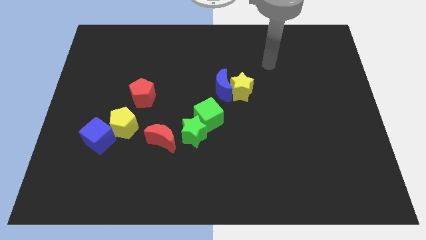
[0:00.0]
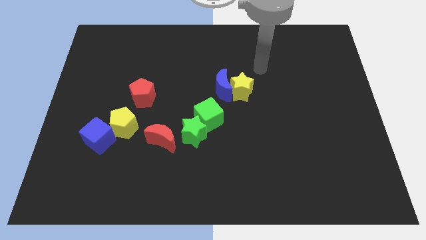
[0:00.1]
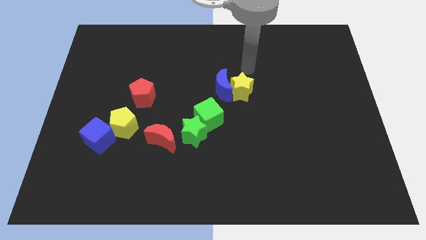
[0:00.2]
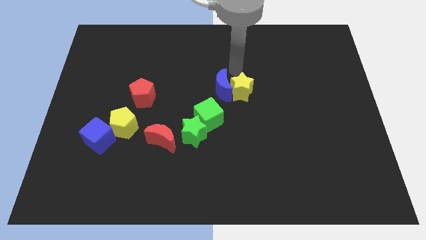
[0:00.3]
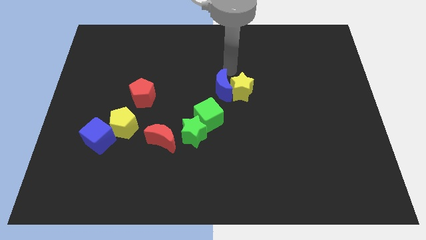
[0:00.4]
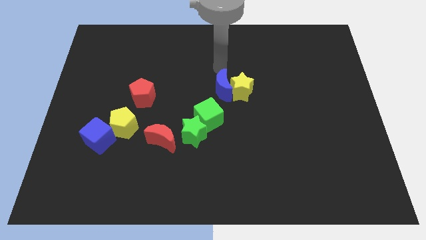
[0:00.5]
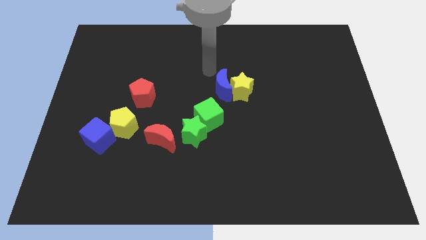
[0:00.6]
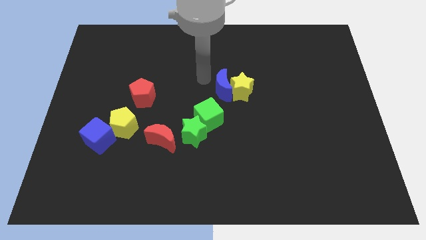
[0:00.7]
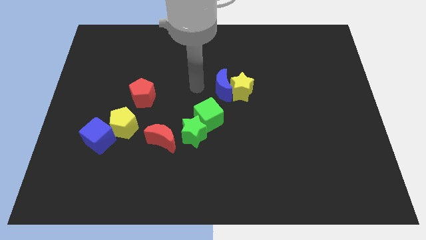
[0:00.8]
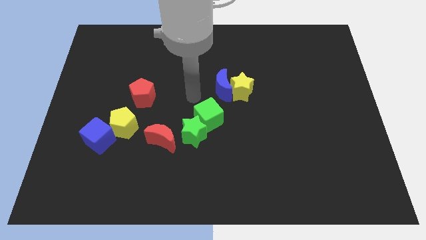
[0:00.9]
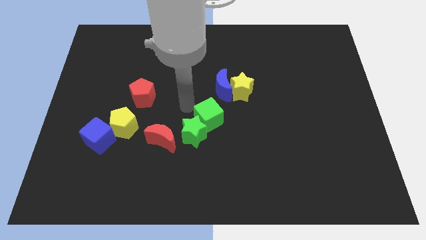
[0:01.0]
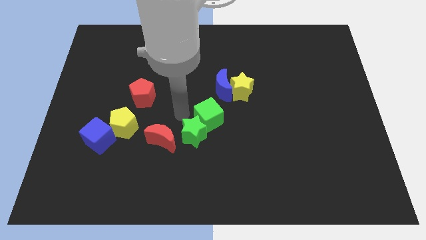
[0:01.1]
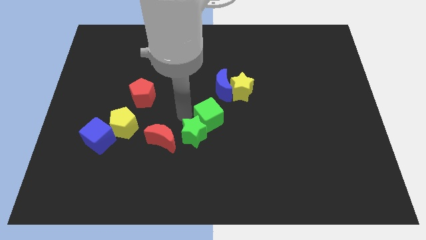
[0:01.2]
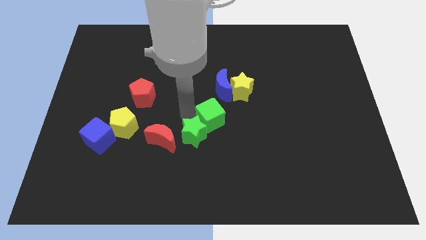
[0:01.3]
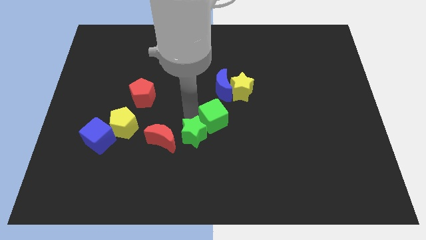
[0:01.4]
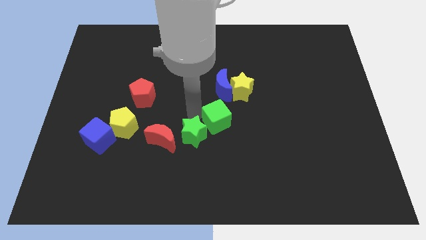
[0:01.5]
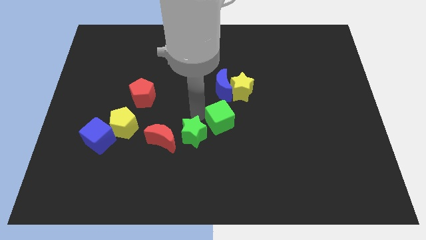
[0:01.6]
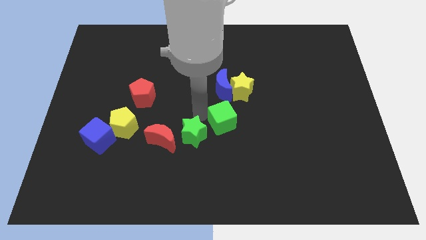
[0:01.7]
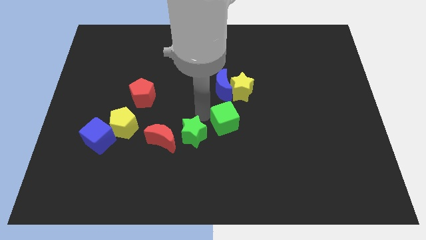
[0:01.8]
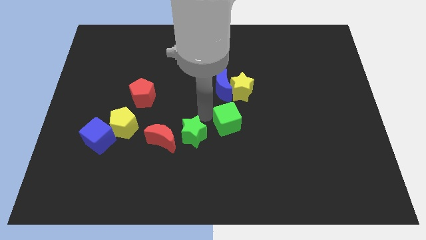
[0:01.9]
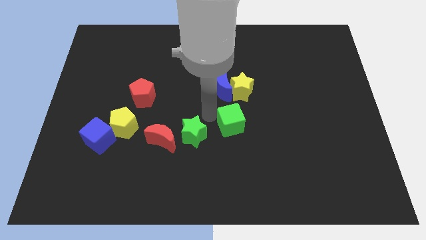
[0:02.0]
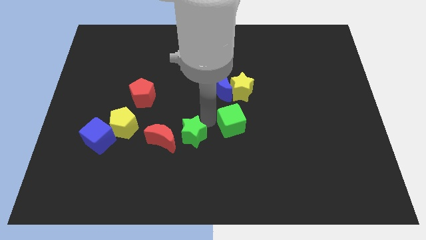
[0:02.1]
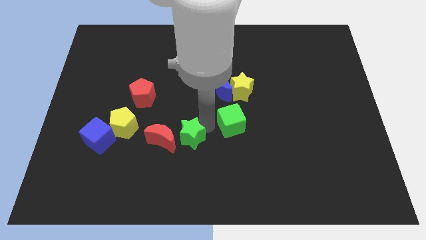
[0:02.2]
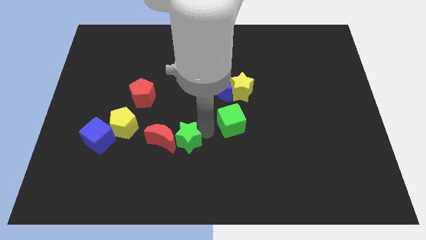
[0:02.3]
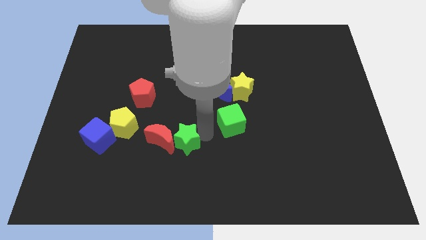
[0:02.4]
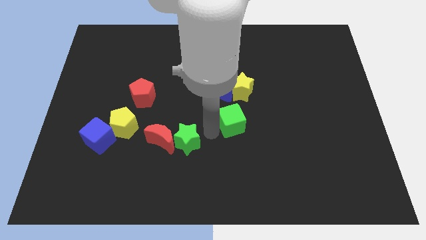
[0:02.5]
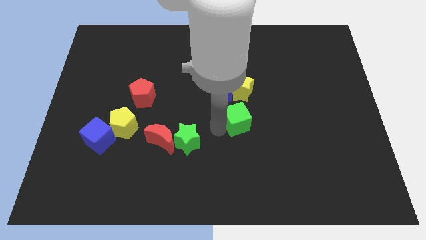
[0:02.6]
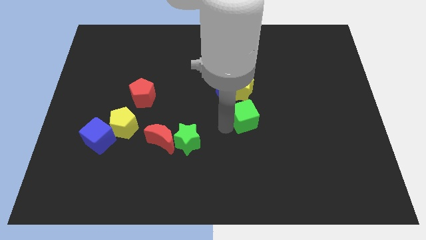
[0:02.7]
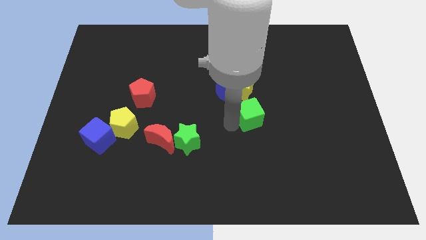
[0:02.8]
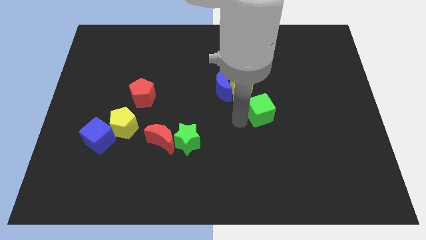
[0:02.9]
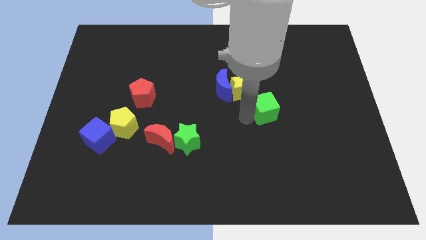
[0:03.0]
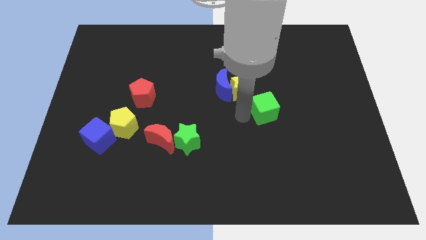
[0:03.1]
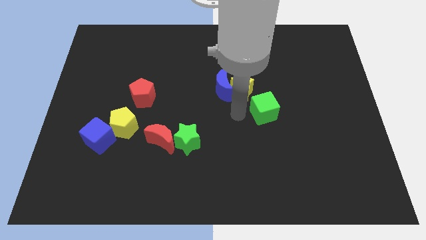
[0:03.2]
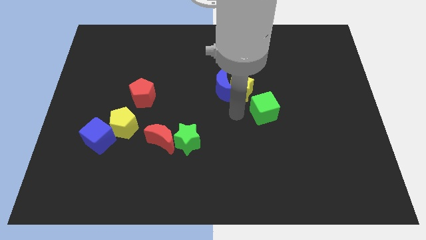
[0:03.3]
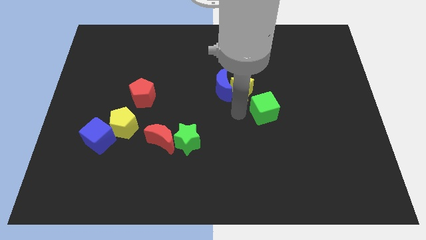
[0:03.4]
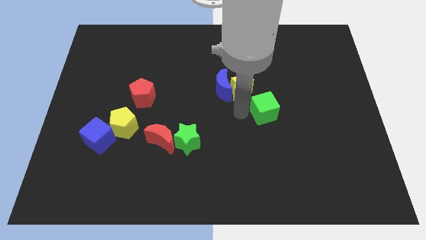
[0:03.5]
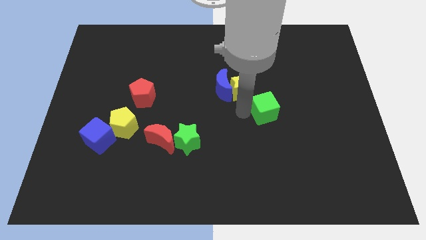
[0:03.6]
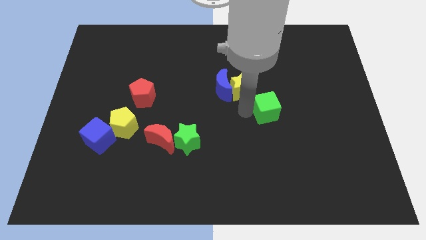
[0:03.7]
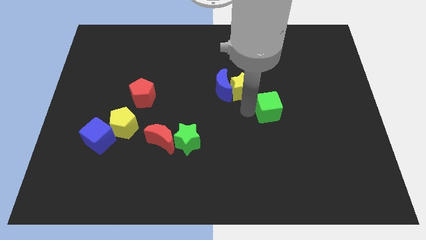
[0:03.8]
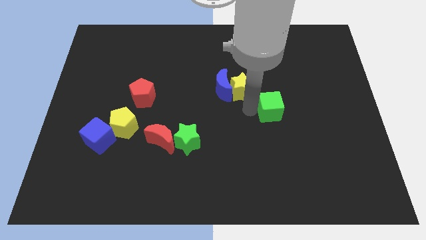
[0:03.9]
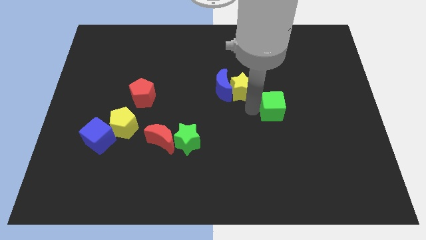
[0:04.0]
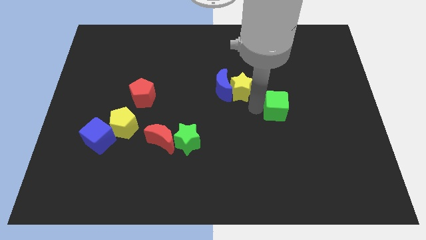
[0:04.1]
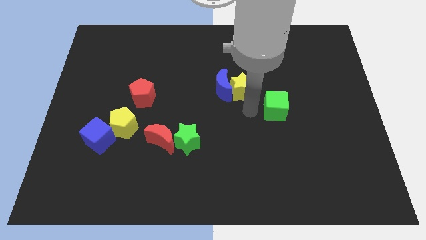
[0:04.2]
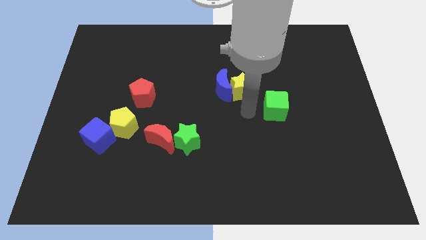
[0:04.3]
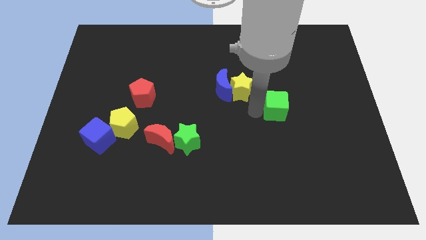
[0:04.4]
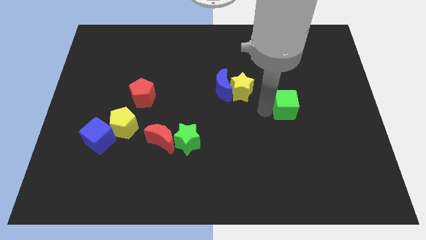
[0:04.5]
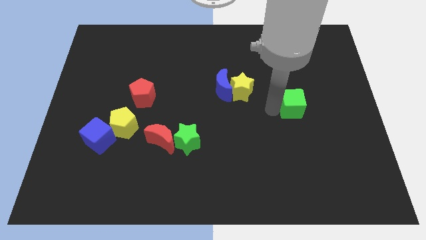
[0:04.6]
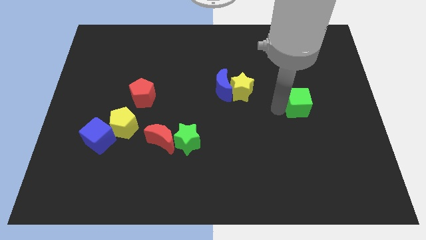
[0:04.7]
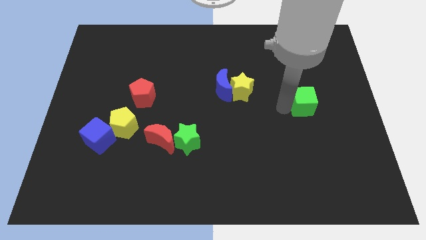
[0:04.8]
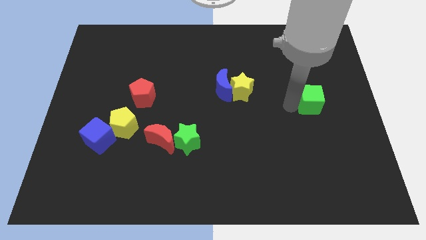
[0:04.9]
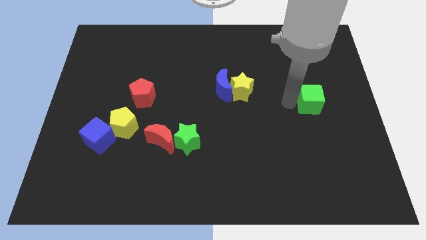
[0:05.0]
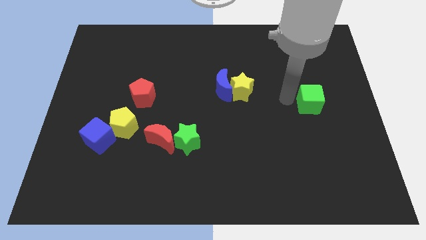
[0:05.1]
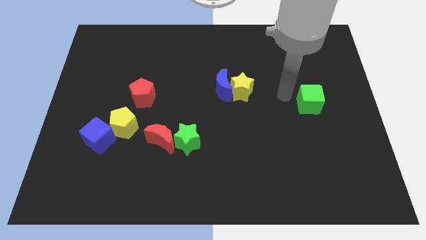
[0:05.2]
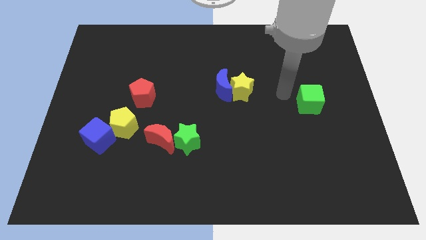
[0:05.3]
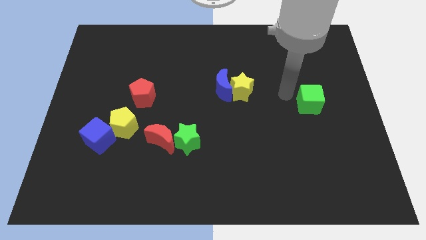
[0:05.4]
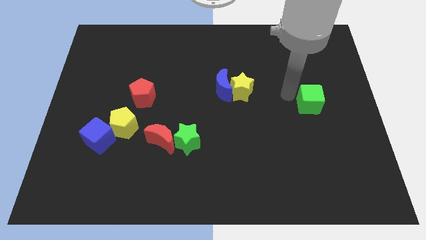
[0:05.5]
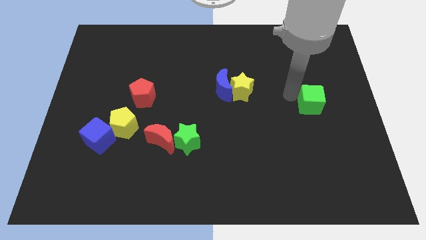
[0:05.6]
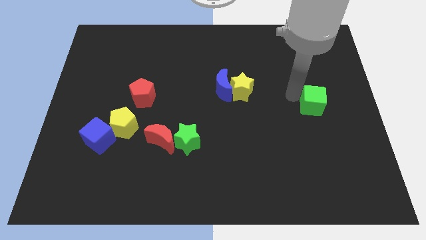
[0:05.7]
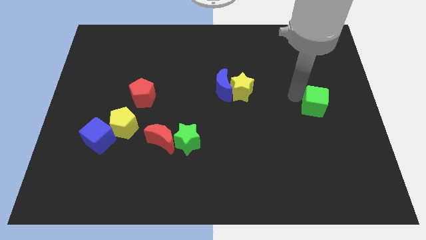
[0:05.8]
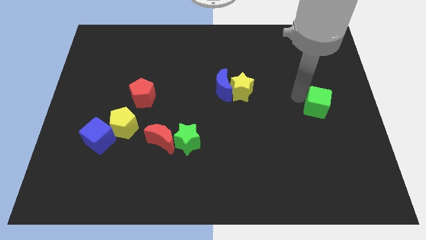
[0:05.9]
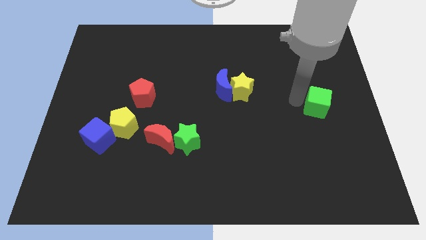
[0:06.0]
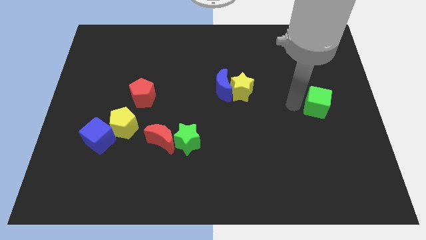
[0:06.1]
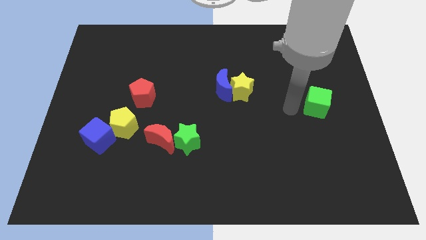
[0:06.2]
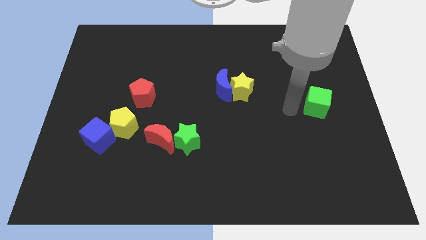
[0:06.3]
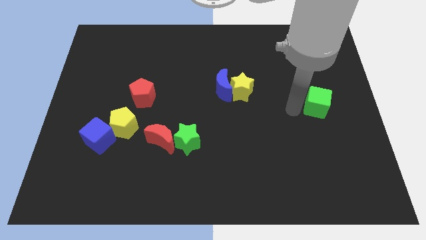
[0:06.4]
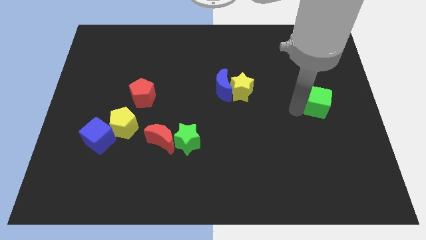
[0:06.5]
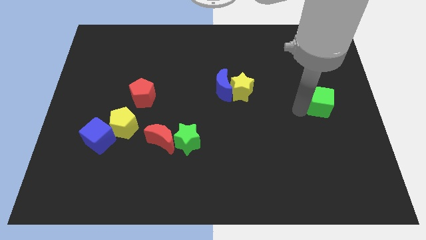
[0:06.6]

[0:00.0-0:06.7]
slide the green cube to the right side
